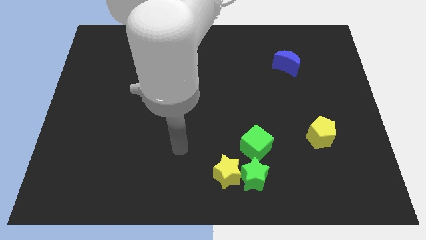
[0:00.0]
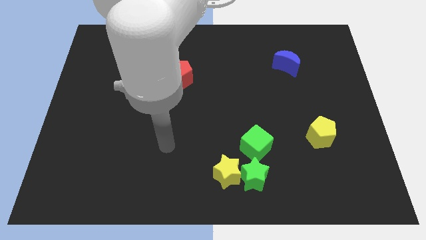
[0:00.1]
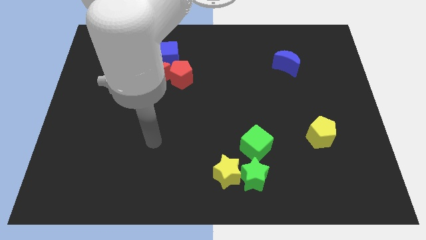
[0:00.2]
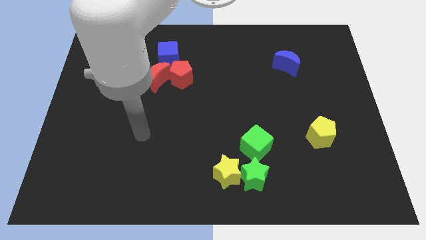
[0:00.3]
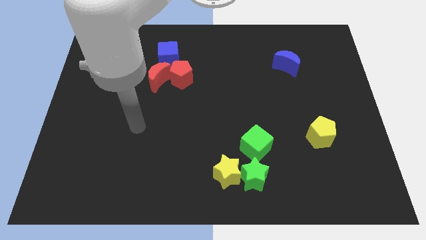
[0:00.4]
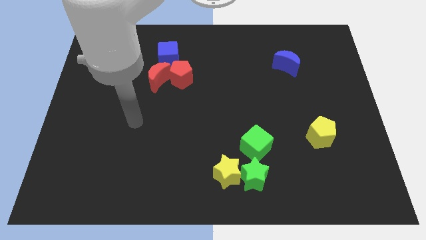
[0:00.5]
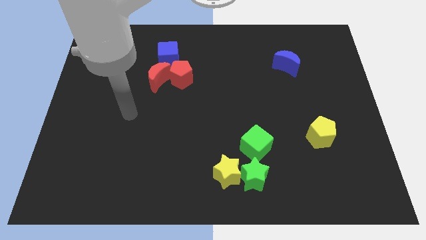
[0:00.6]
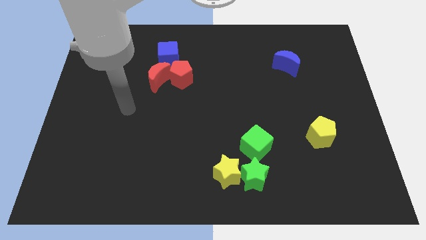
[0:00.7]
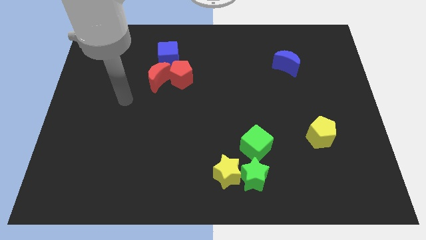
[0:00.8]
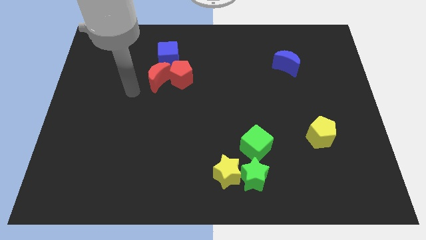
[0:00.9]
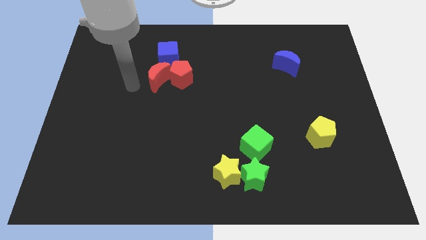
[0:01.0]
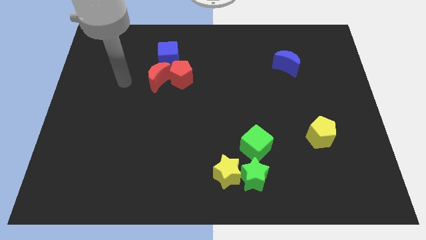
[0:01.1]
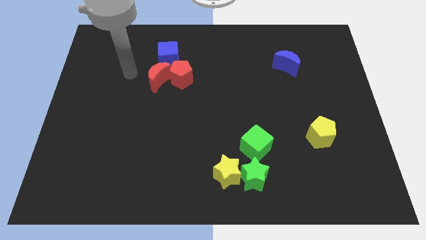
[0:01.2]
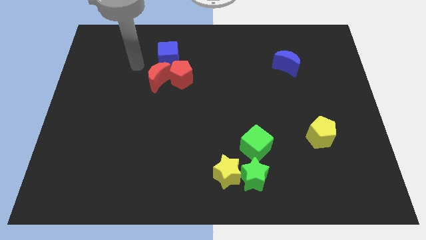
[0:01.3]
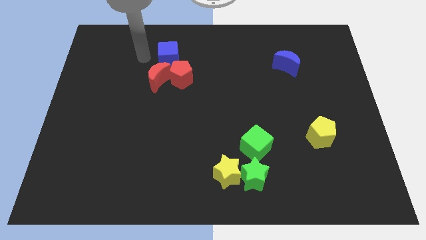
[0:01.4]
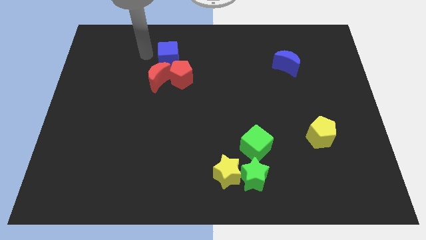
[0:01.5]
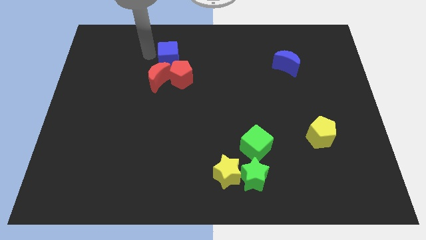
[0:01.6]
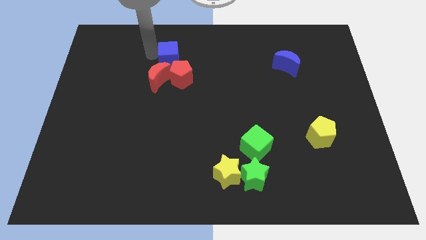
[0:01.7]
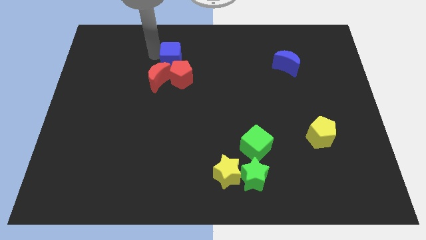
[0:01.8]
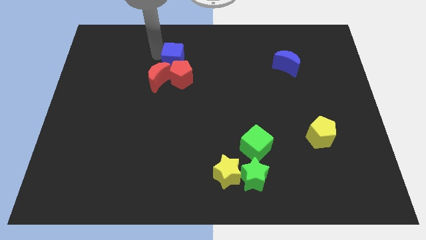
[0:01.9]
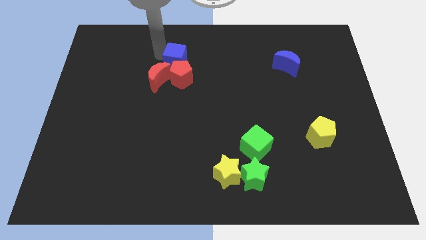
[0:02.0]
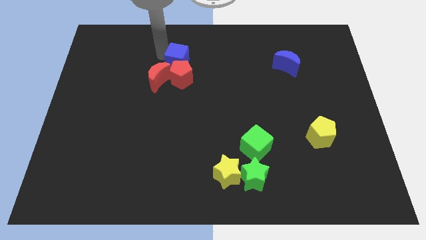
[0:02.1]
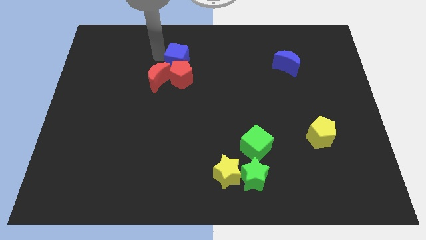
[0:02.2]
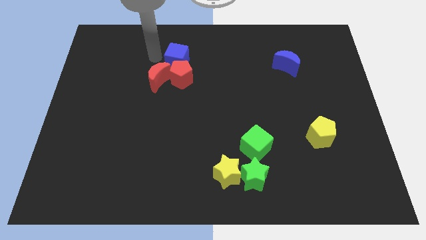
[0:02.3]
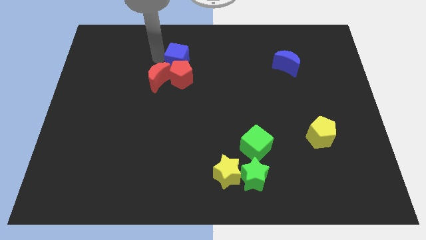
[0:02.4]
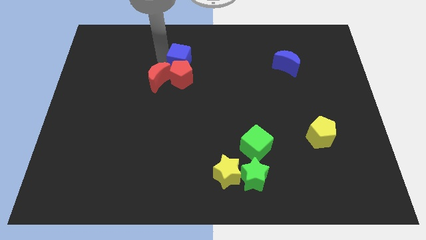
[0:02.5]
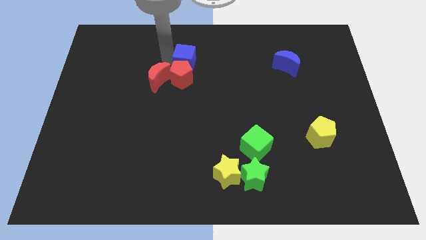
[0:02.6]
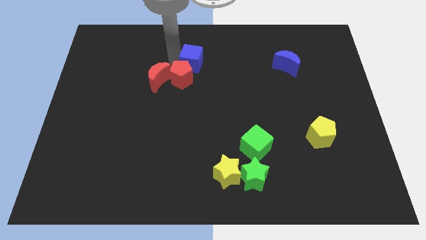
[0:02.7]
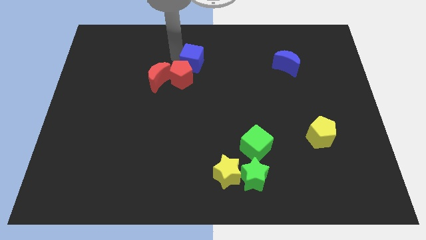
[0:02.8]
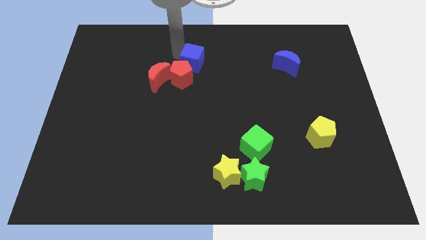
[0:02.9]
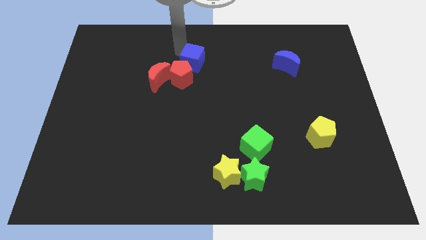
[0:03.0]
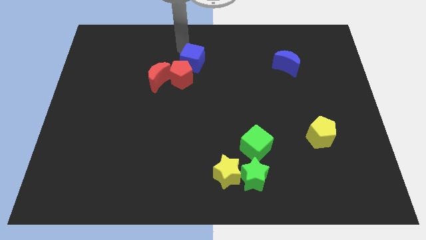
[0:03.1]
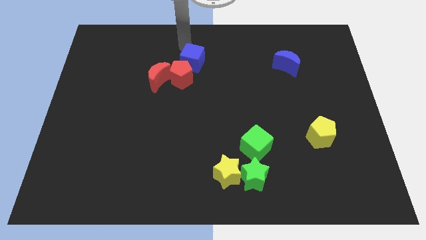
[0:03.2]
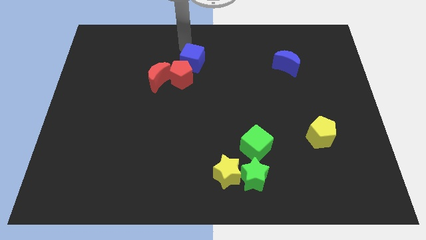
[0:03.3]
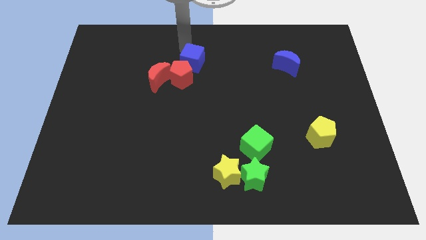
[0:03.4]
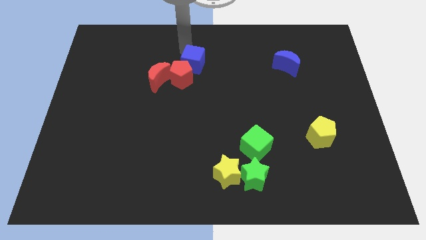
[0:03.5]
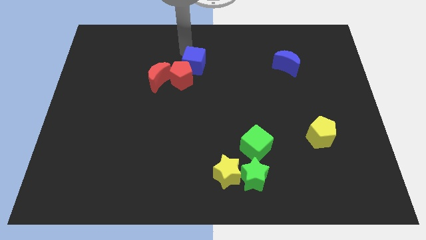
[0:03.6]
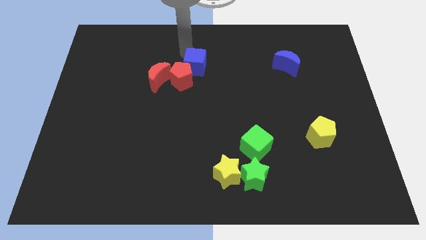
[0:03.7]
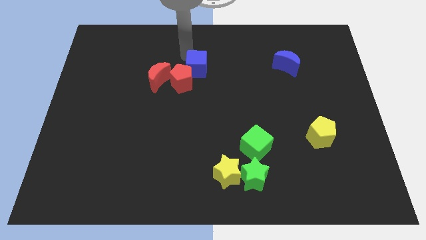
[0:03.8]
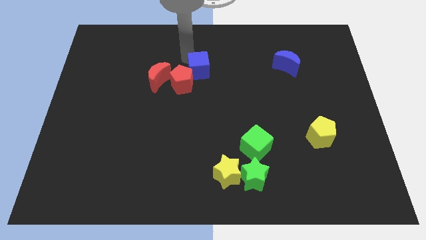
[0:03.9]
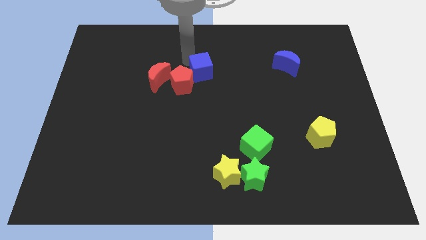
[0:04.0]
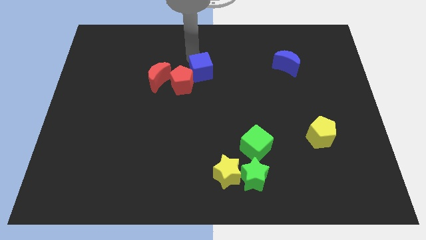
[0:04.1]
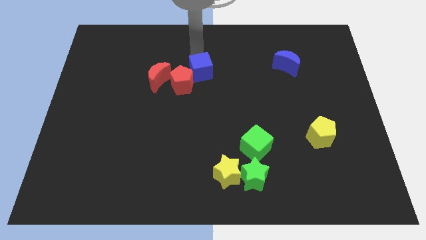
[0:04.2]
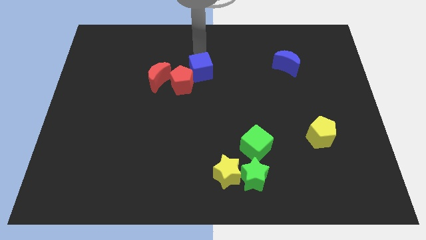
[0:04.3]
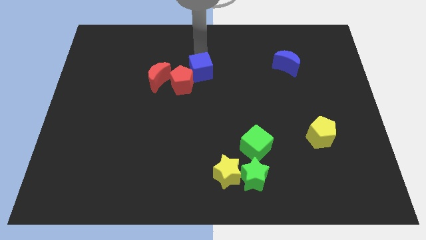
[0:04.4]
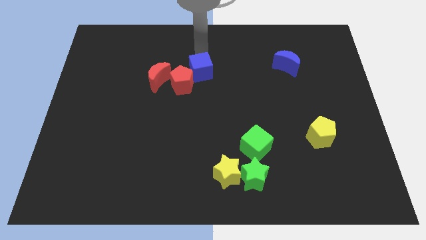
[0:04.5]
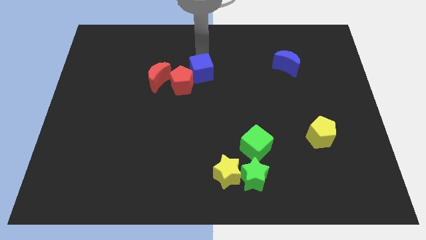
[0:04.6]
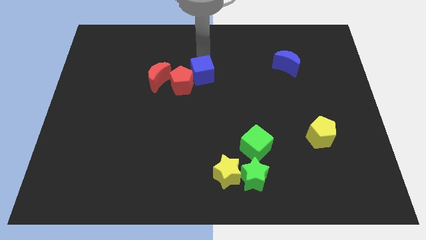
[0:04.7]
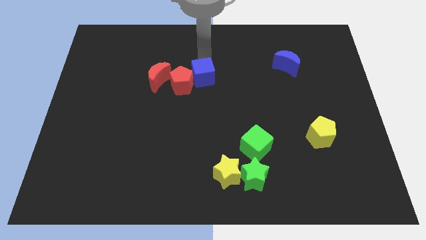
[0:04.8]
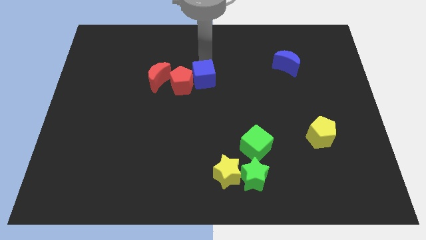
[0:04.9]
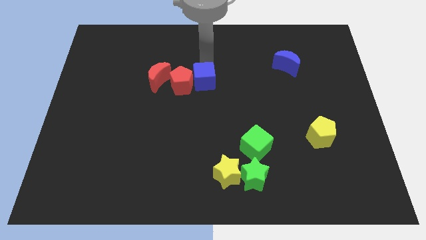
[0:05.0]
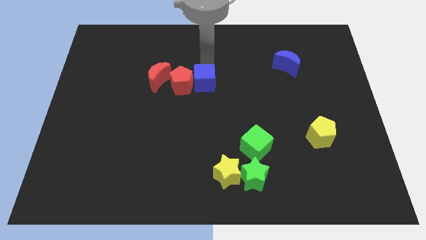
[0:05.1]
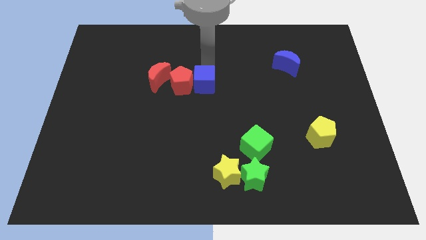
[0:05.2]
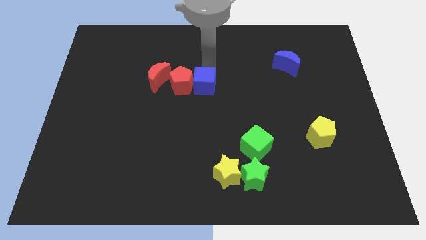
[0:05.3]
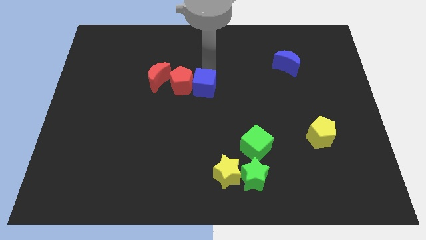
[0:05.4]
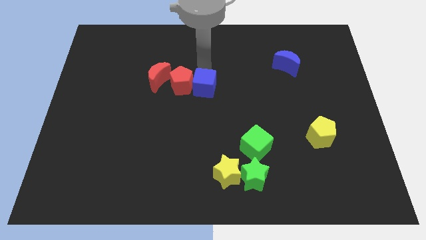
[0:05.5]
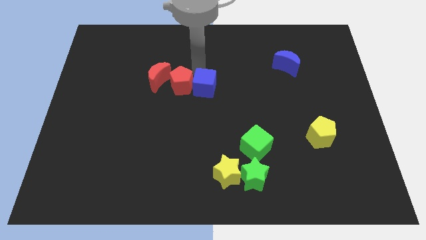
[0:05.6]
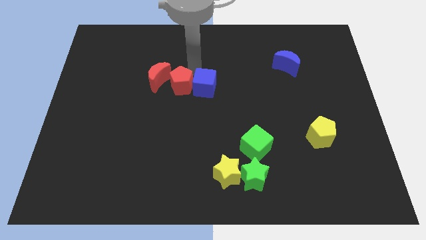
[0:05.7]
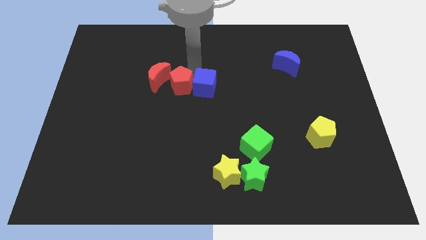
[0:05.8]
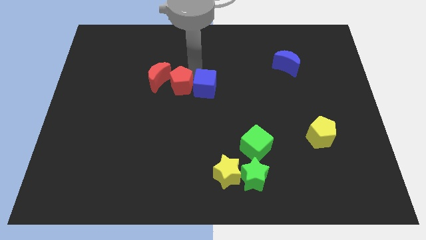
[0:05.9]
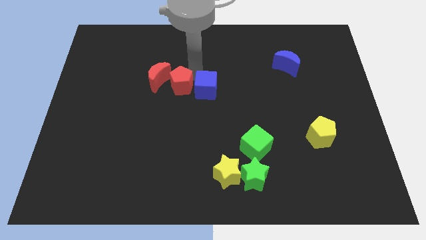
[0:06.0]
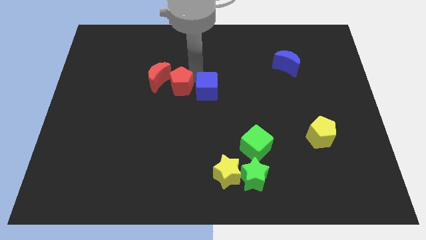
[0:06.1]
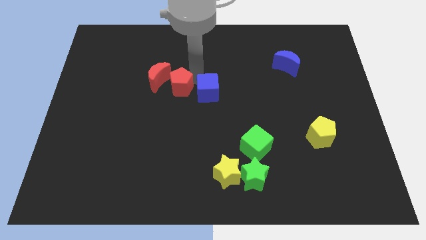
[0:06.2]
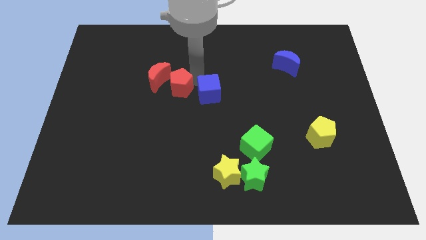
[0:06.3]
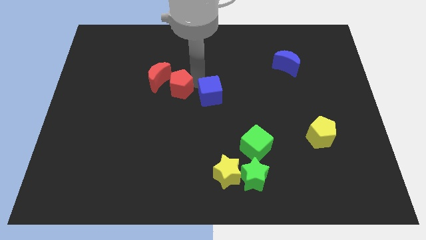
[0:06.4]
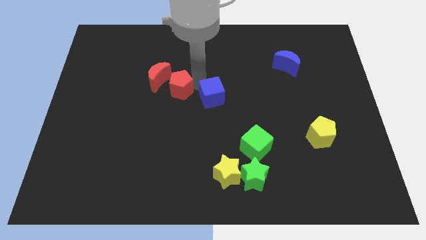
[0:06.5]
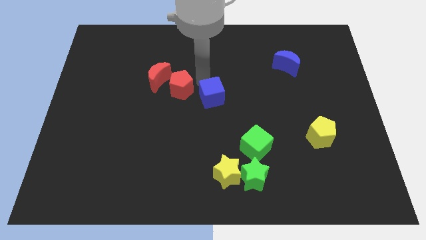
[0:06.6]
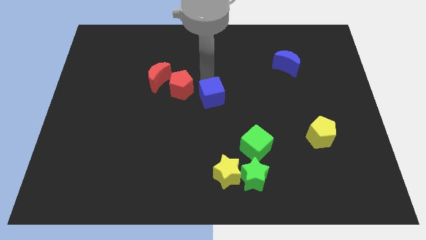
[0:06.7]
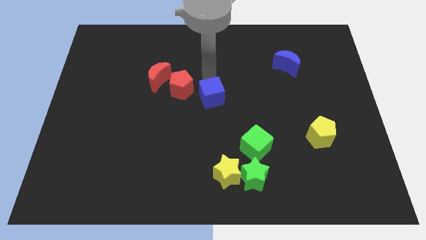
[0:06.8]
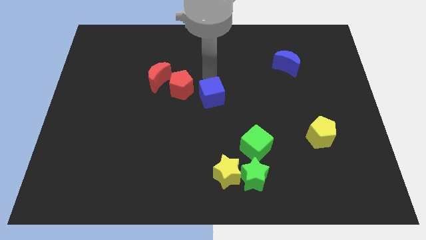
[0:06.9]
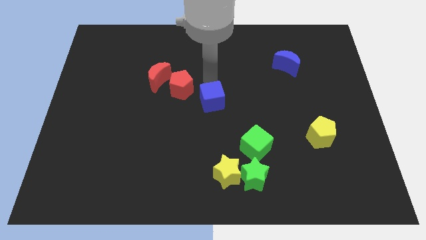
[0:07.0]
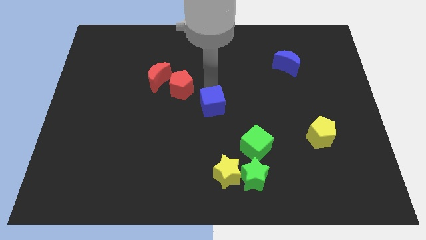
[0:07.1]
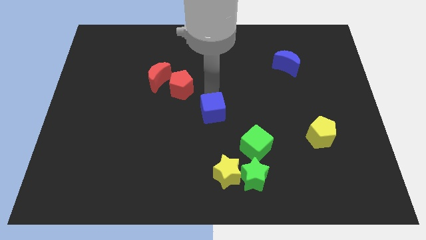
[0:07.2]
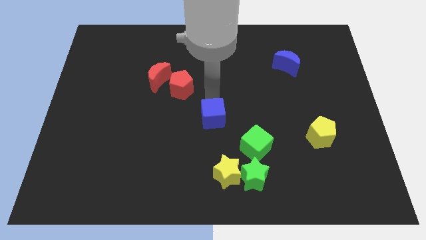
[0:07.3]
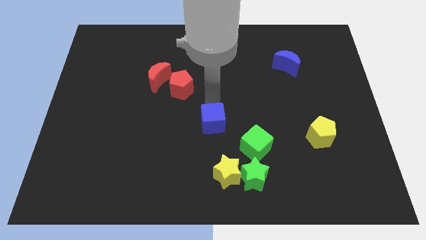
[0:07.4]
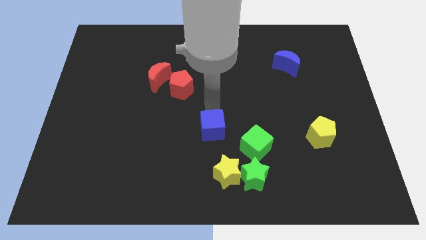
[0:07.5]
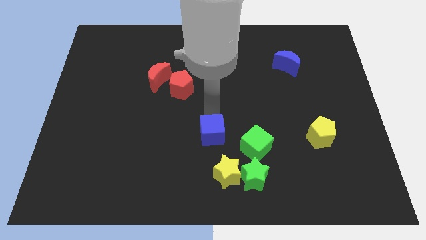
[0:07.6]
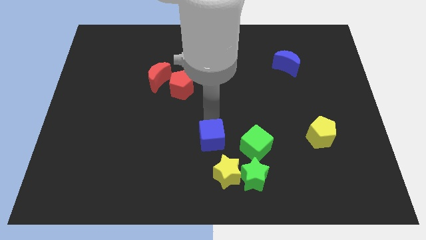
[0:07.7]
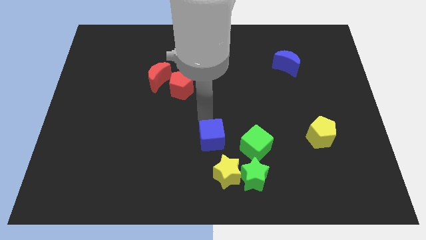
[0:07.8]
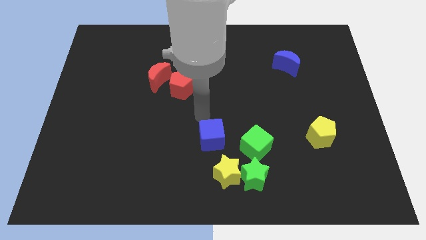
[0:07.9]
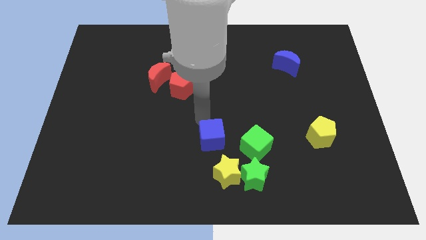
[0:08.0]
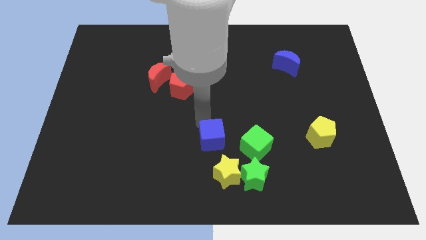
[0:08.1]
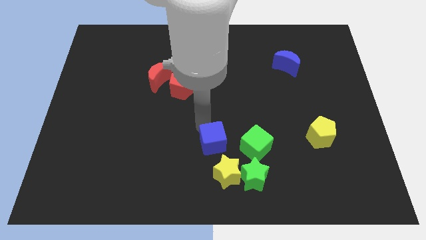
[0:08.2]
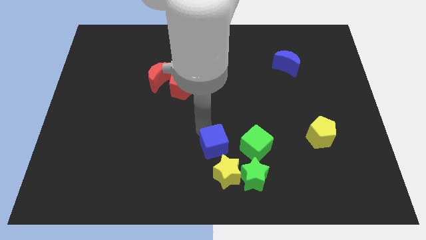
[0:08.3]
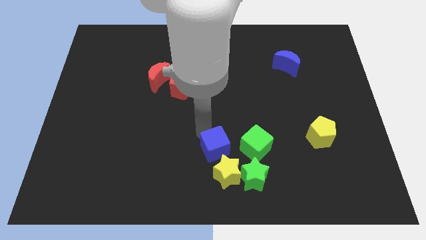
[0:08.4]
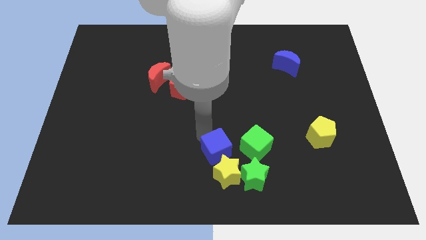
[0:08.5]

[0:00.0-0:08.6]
put the blue cube next to the yellow star
